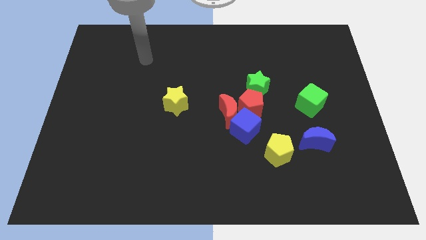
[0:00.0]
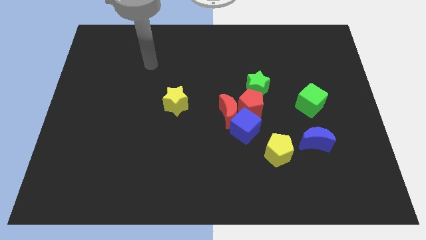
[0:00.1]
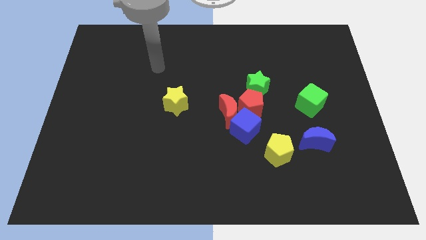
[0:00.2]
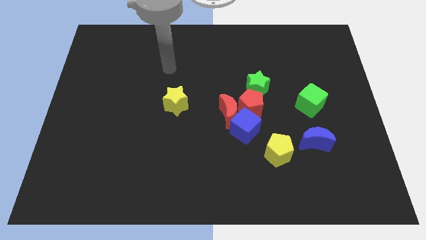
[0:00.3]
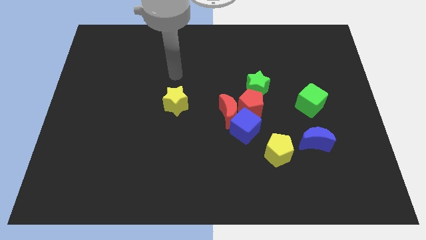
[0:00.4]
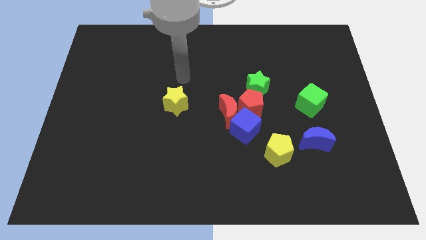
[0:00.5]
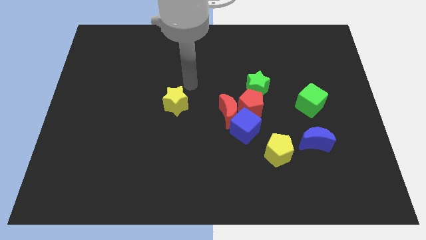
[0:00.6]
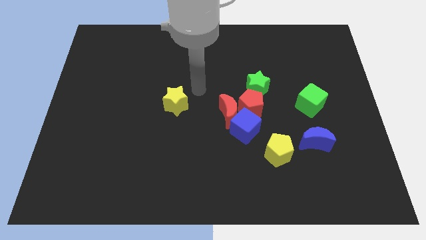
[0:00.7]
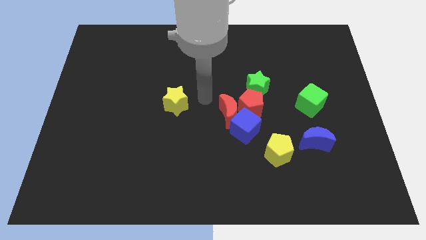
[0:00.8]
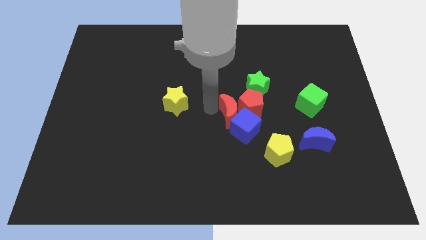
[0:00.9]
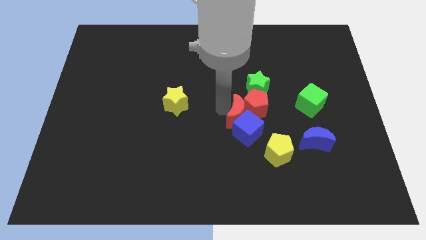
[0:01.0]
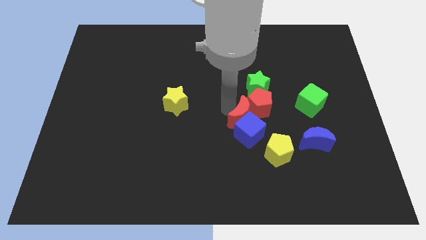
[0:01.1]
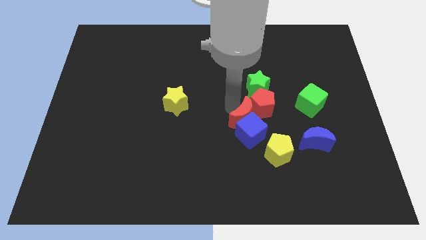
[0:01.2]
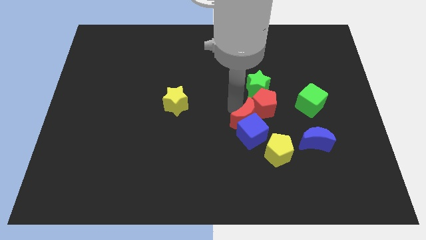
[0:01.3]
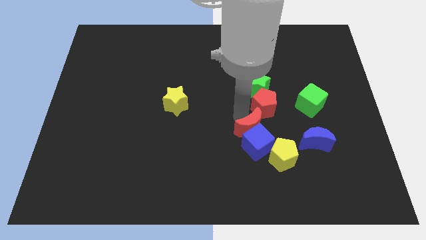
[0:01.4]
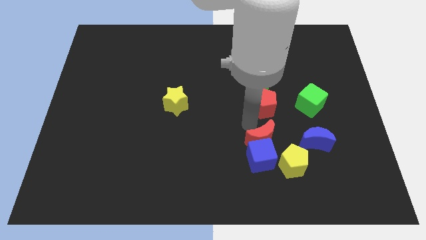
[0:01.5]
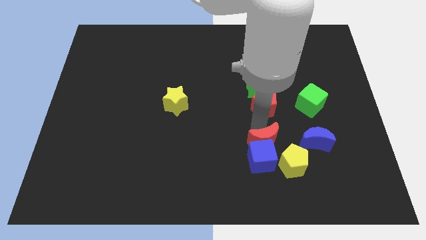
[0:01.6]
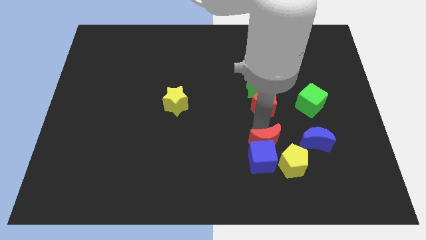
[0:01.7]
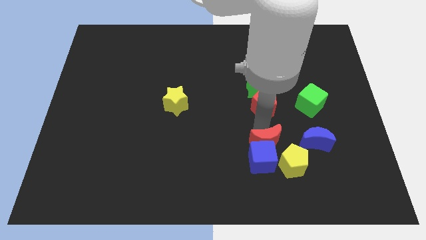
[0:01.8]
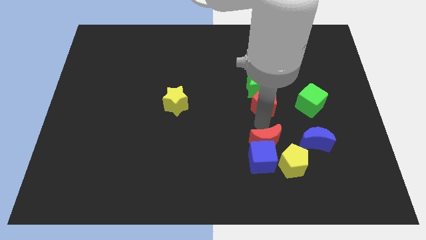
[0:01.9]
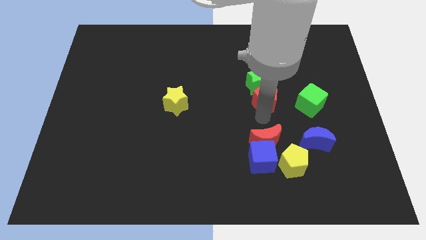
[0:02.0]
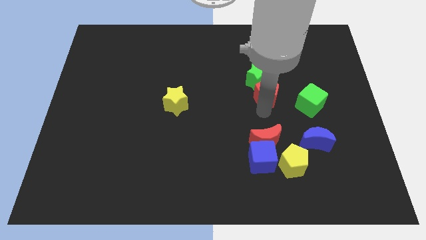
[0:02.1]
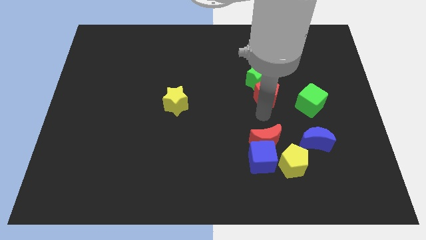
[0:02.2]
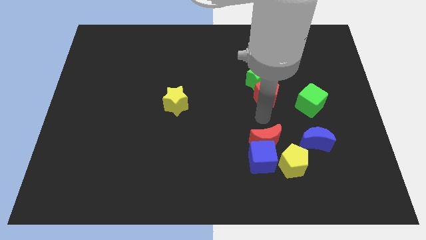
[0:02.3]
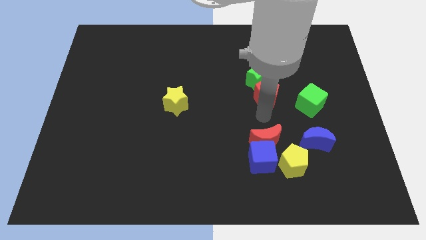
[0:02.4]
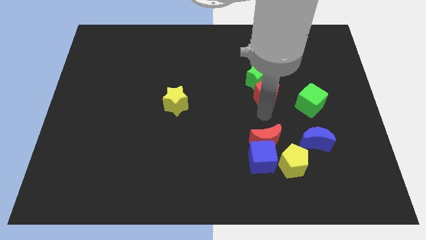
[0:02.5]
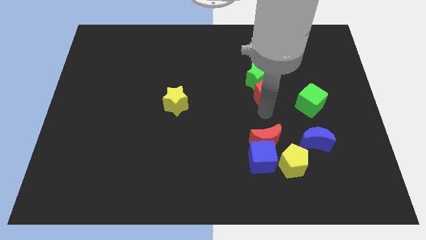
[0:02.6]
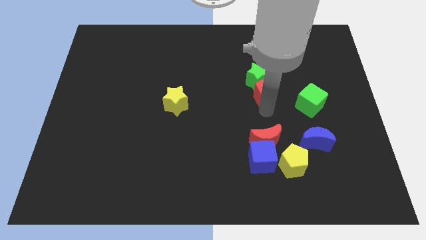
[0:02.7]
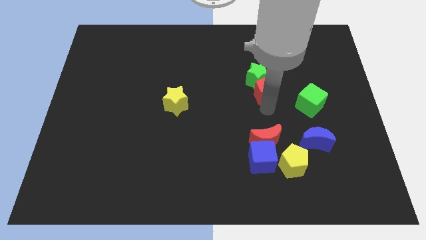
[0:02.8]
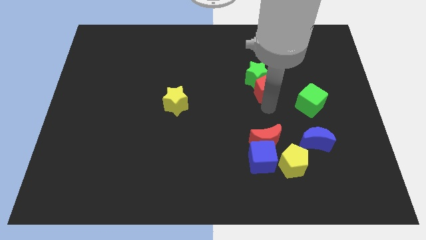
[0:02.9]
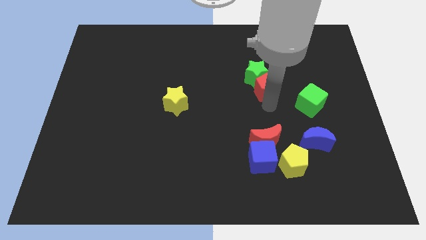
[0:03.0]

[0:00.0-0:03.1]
separate the red pentagon from the red moon, green star, and blue cube

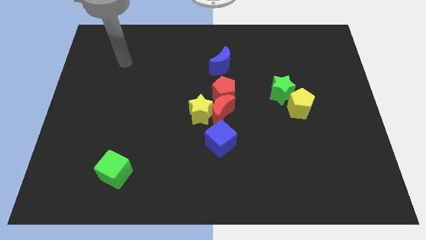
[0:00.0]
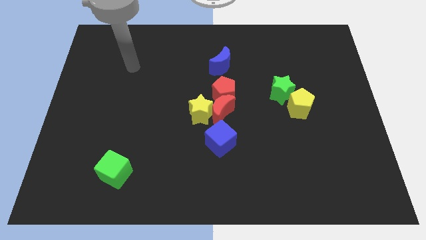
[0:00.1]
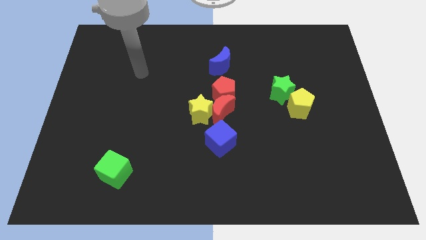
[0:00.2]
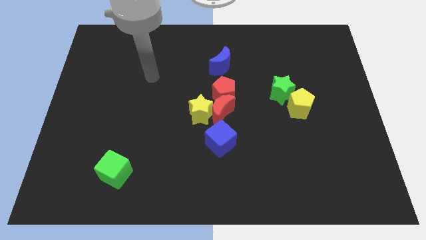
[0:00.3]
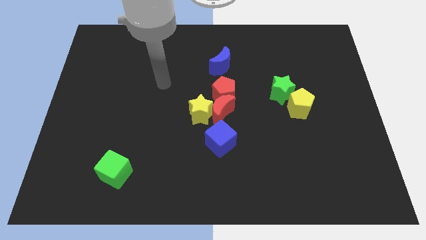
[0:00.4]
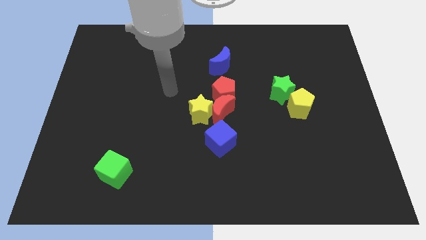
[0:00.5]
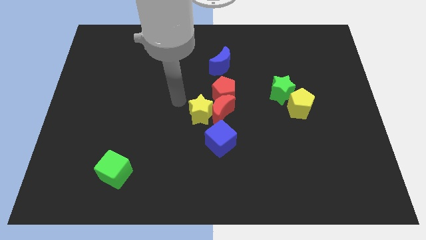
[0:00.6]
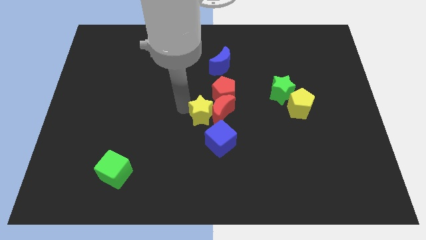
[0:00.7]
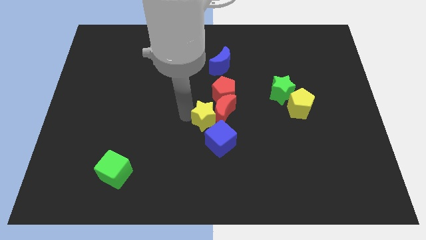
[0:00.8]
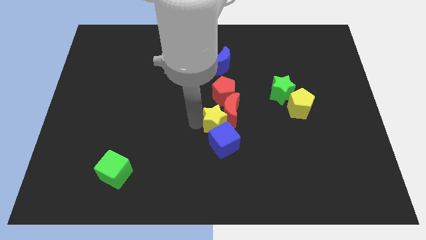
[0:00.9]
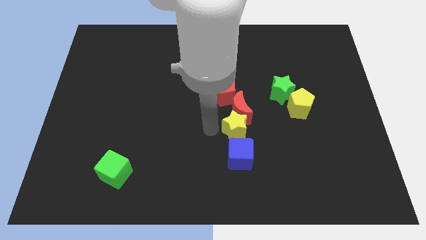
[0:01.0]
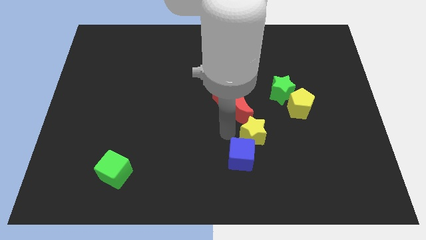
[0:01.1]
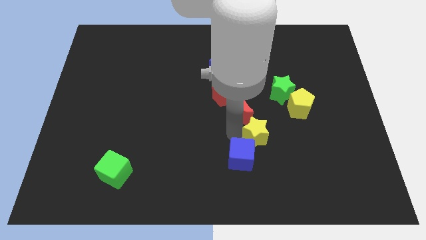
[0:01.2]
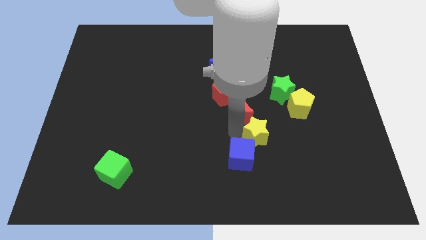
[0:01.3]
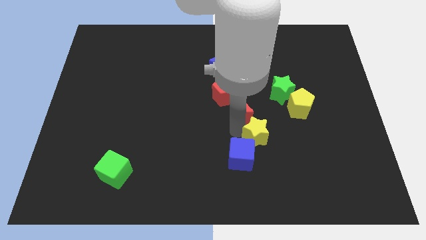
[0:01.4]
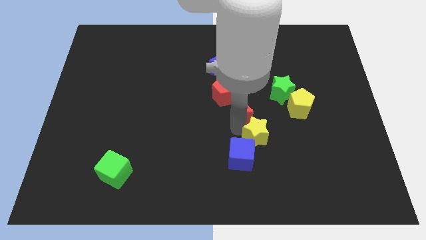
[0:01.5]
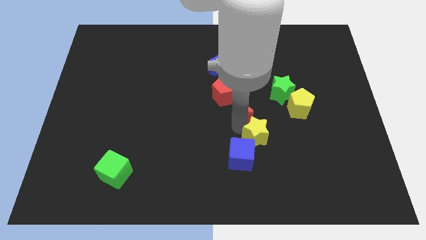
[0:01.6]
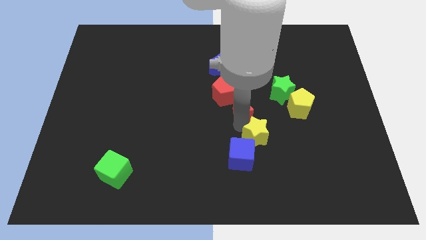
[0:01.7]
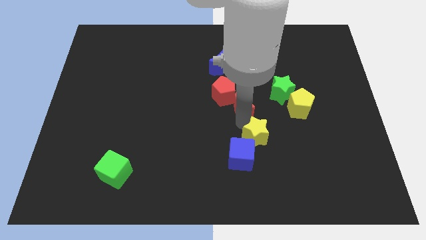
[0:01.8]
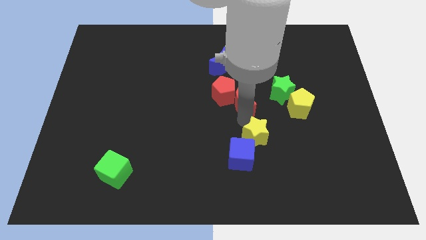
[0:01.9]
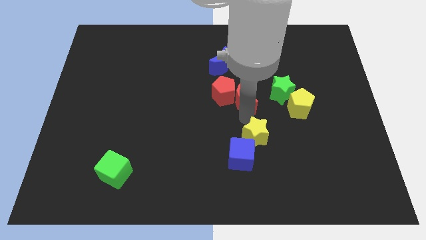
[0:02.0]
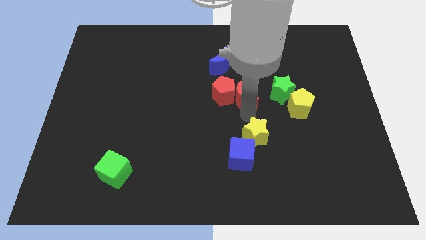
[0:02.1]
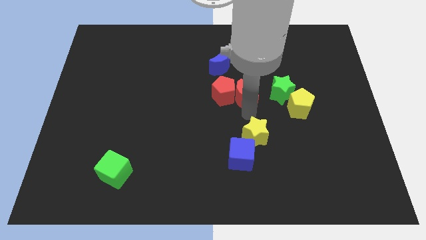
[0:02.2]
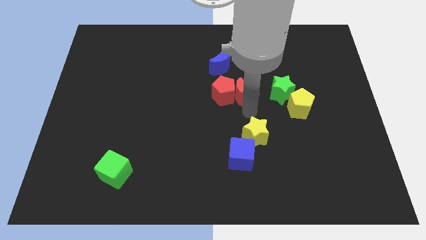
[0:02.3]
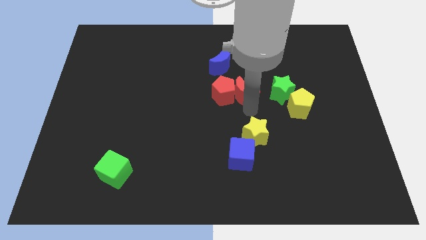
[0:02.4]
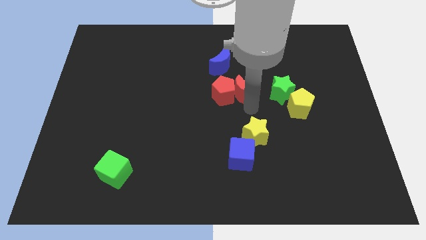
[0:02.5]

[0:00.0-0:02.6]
pull the red moon apart from the yellow star, red pentagon, and blue cube

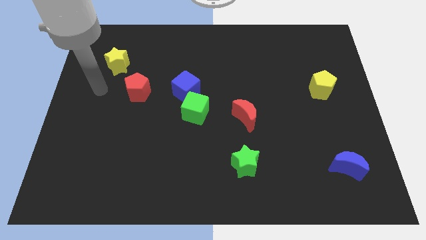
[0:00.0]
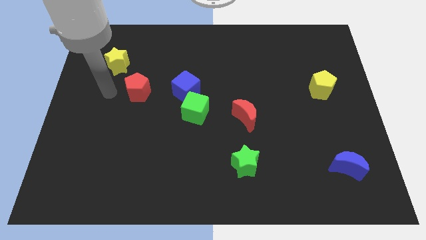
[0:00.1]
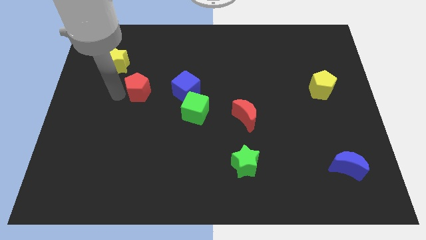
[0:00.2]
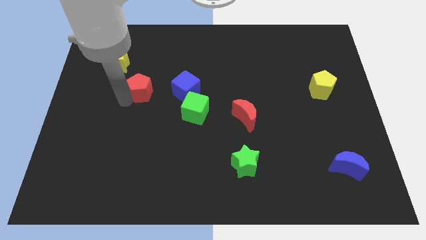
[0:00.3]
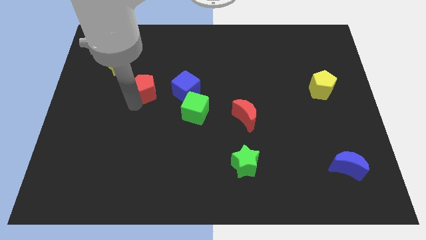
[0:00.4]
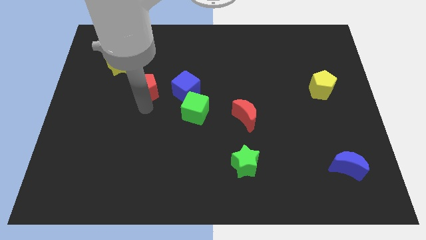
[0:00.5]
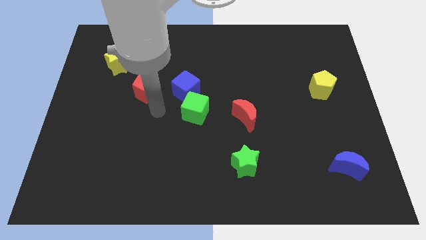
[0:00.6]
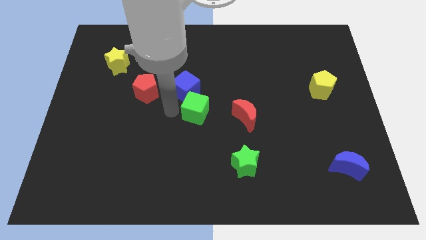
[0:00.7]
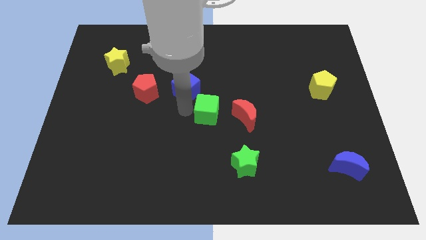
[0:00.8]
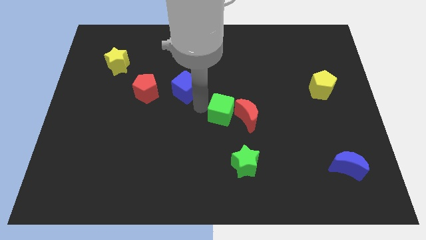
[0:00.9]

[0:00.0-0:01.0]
pull the blue cube apart from the green cube

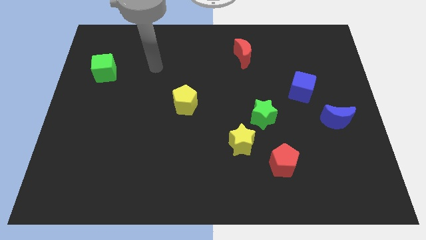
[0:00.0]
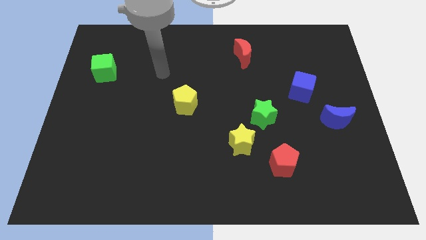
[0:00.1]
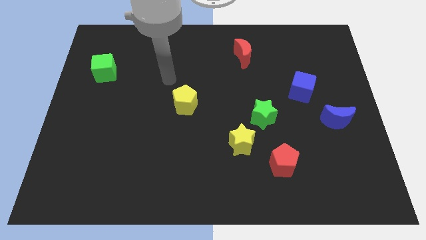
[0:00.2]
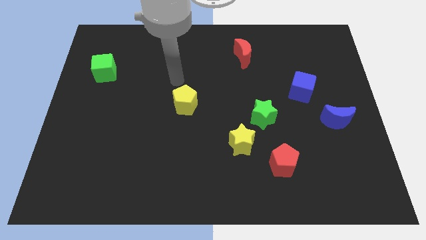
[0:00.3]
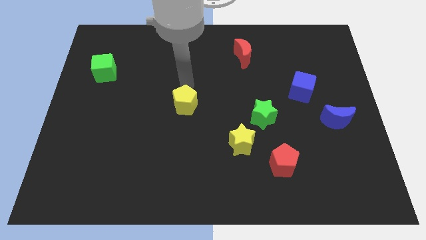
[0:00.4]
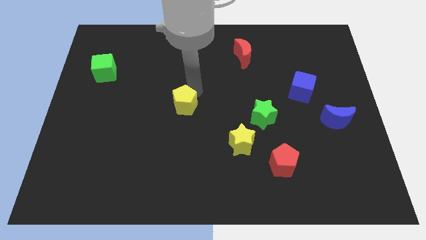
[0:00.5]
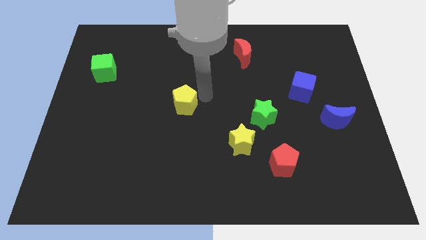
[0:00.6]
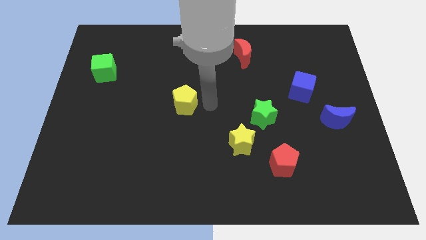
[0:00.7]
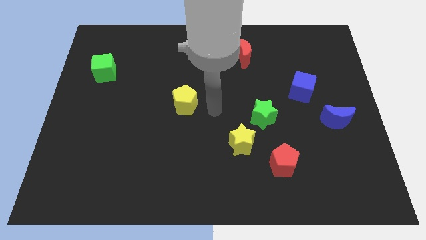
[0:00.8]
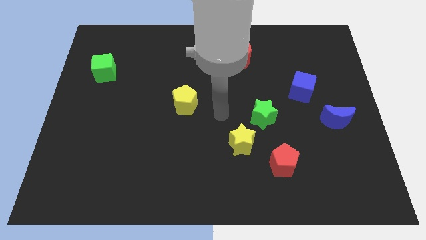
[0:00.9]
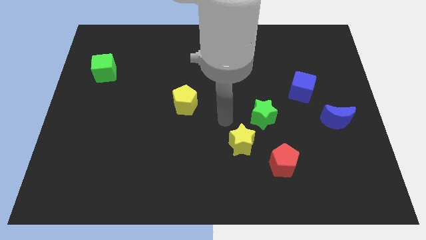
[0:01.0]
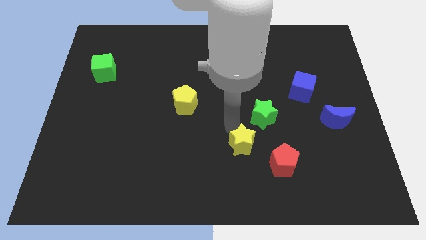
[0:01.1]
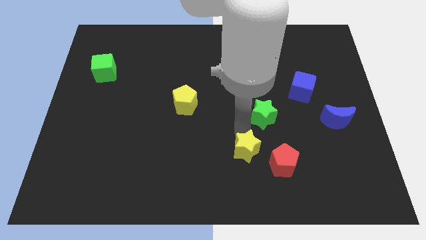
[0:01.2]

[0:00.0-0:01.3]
pull the green star apart from the yellow star

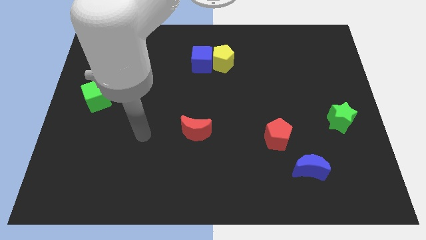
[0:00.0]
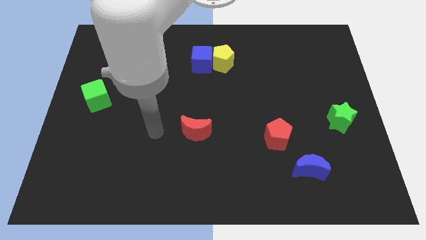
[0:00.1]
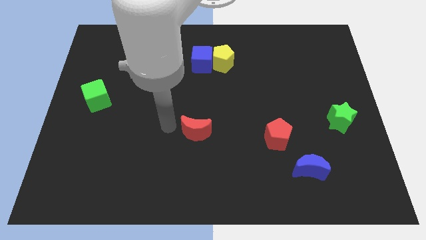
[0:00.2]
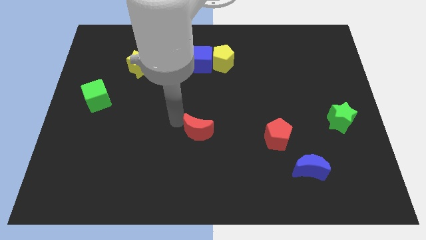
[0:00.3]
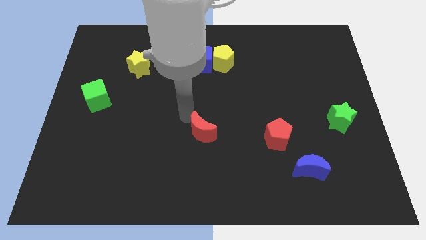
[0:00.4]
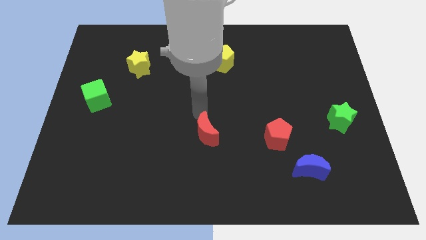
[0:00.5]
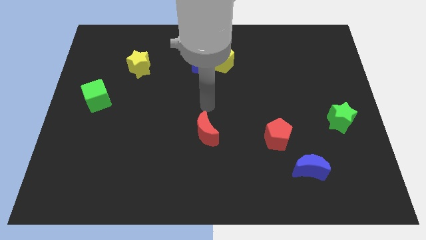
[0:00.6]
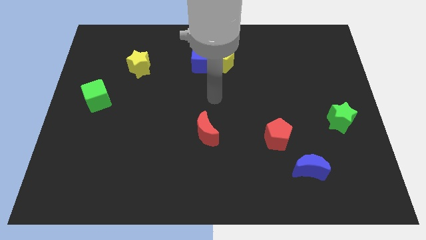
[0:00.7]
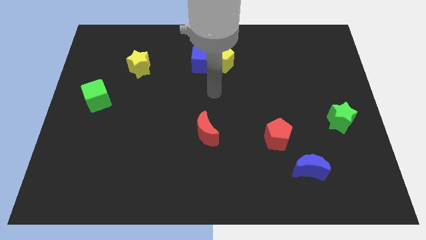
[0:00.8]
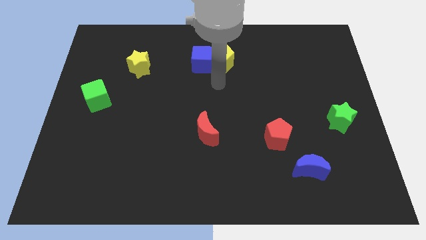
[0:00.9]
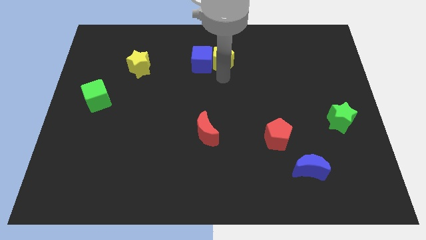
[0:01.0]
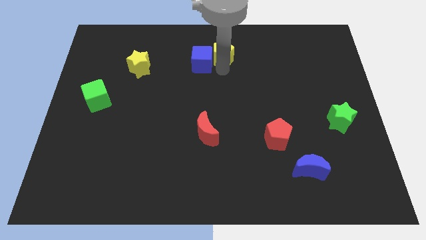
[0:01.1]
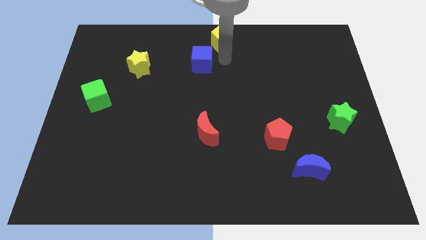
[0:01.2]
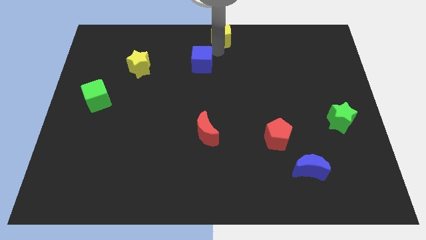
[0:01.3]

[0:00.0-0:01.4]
move the blue cube away from the yellow pentagon
